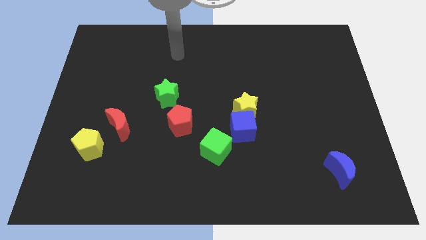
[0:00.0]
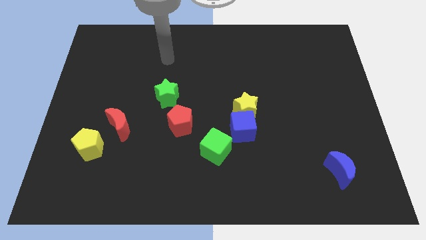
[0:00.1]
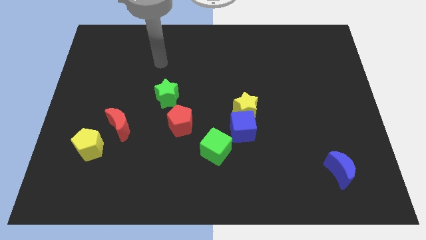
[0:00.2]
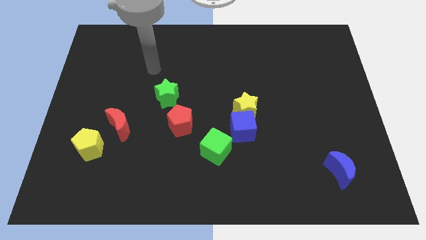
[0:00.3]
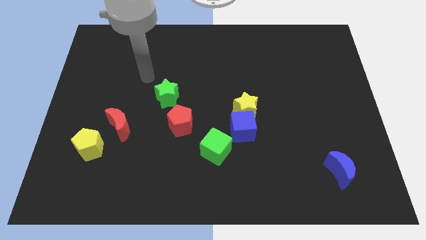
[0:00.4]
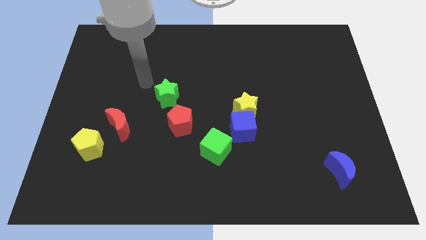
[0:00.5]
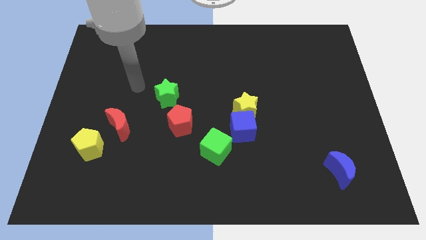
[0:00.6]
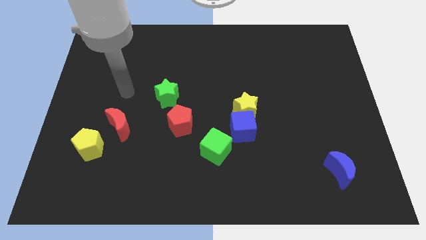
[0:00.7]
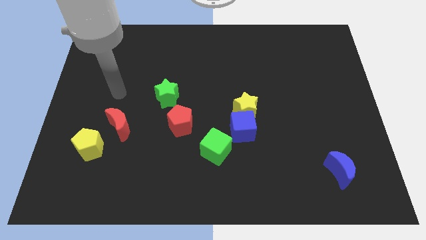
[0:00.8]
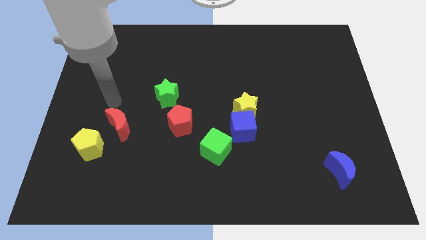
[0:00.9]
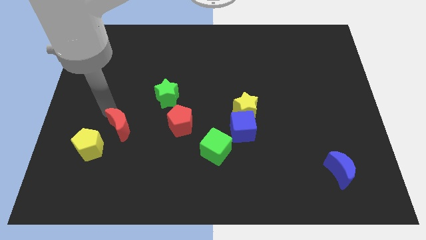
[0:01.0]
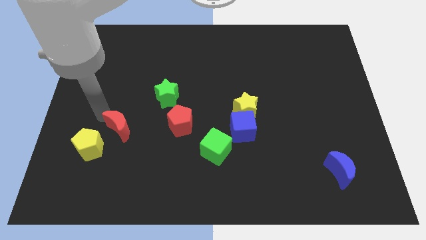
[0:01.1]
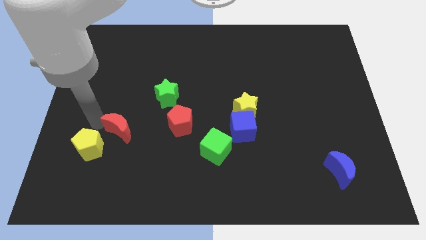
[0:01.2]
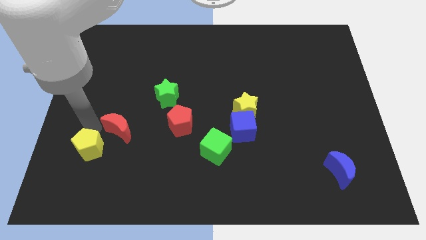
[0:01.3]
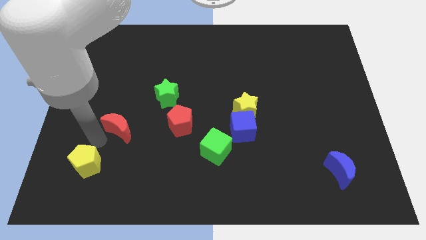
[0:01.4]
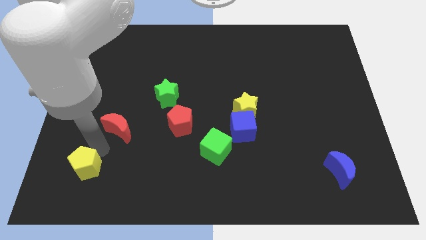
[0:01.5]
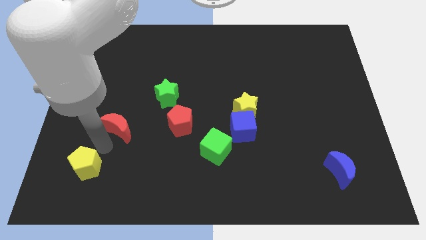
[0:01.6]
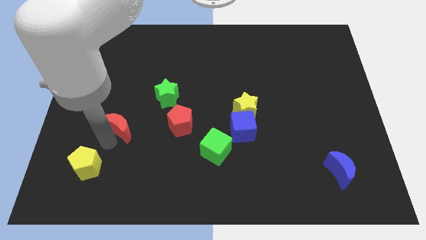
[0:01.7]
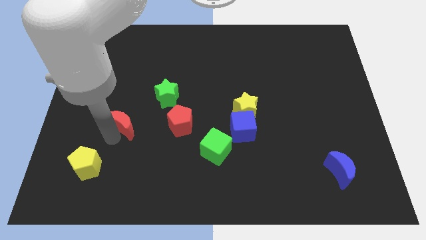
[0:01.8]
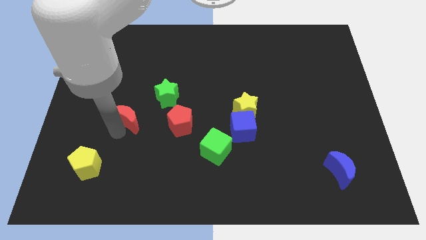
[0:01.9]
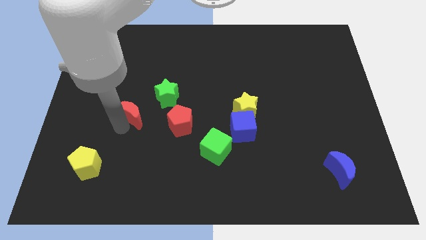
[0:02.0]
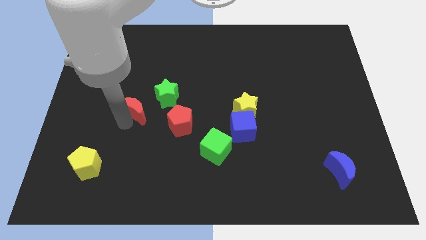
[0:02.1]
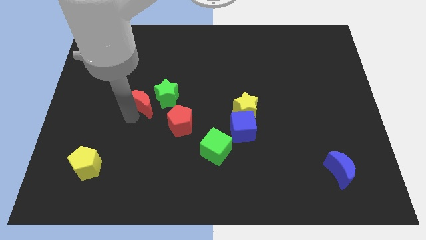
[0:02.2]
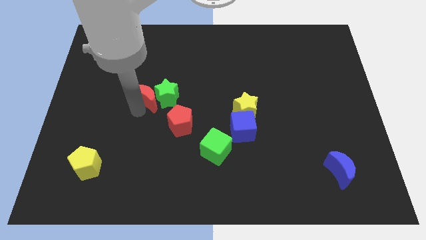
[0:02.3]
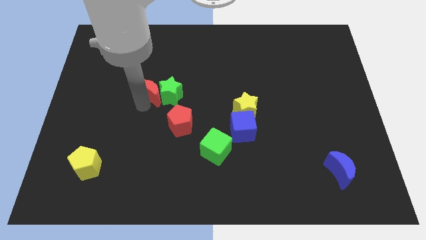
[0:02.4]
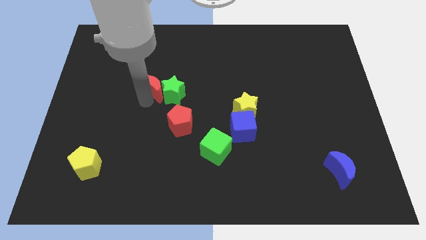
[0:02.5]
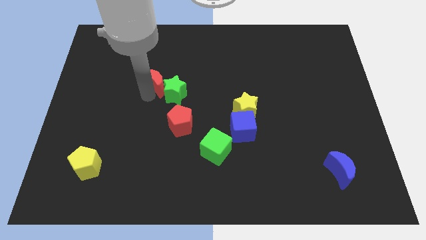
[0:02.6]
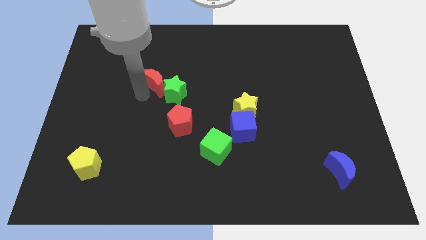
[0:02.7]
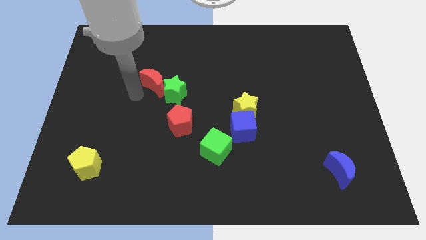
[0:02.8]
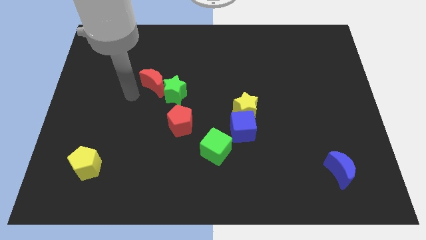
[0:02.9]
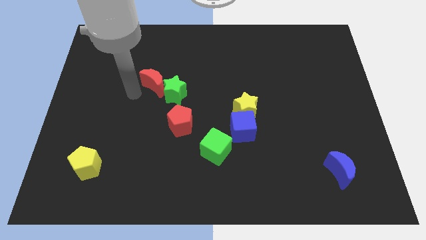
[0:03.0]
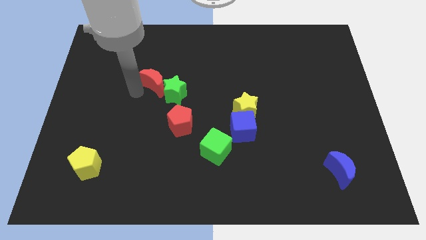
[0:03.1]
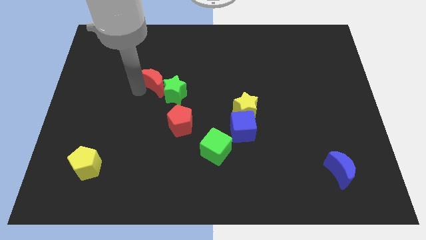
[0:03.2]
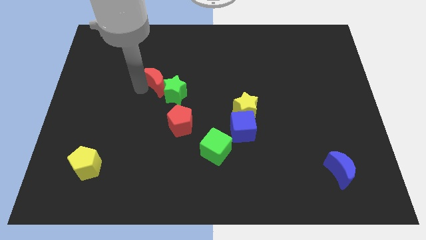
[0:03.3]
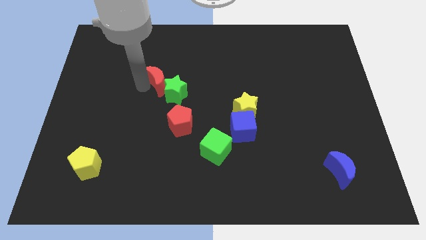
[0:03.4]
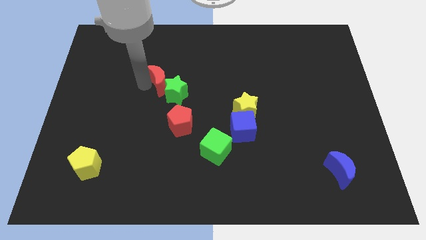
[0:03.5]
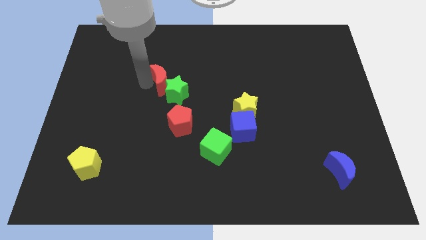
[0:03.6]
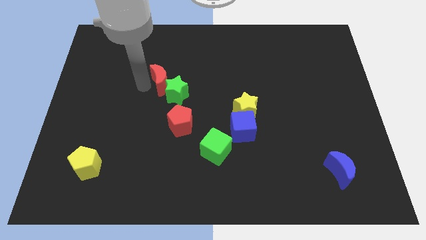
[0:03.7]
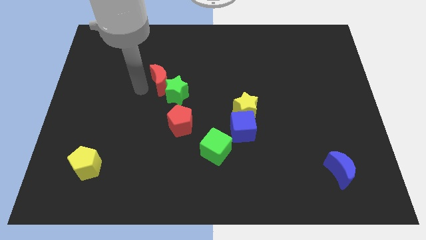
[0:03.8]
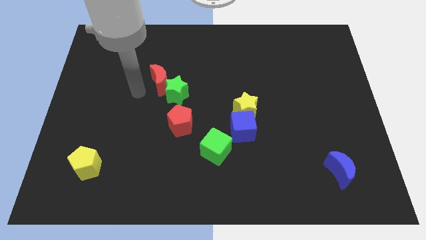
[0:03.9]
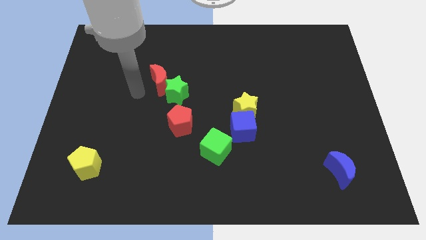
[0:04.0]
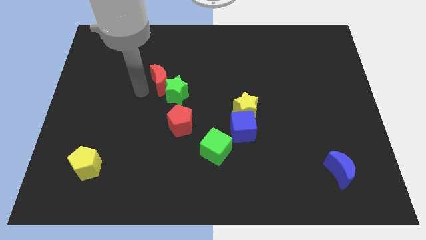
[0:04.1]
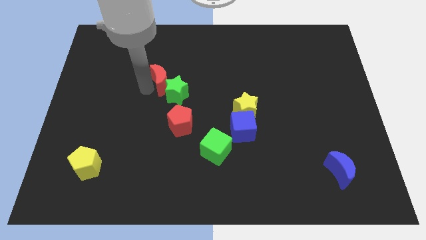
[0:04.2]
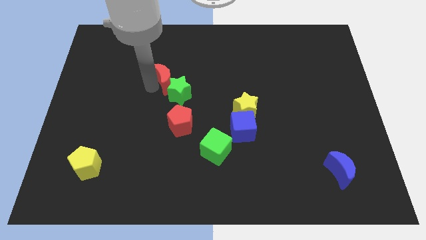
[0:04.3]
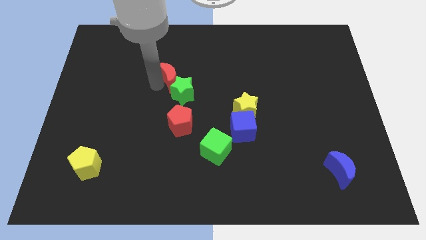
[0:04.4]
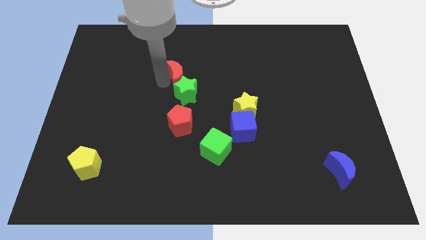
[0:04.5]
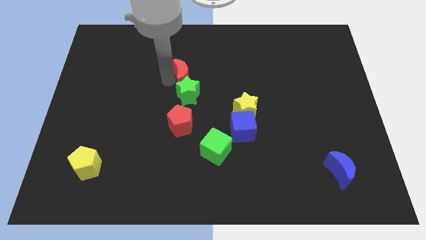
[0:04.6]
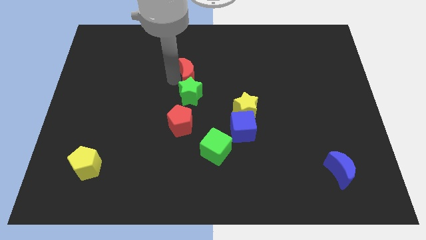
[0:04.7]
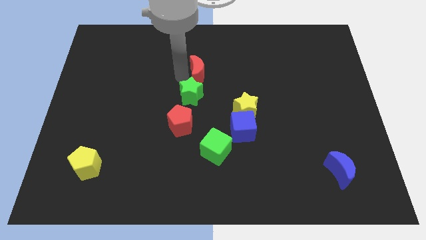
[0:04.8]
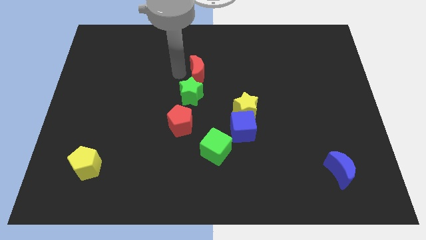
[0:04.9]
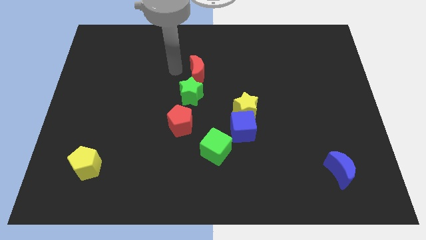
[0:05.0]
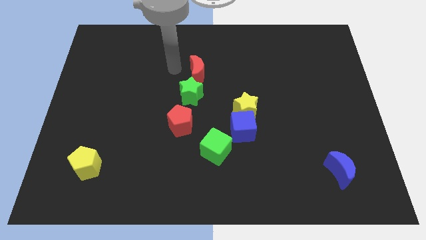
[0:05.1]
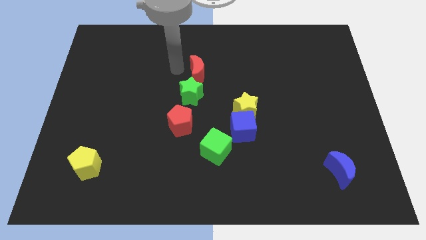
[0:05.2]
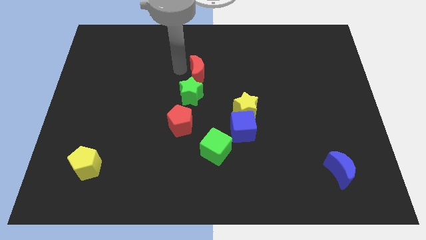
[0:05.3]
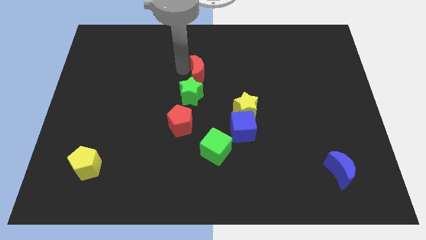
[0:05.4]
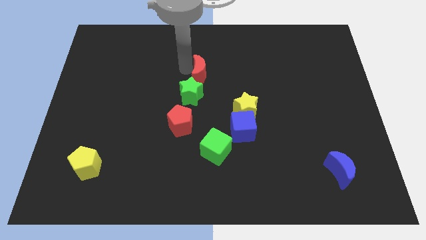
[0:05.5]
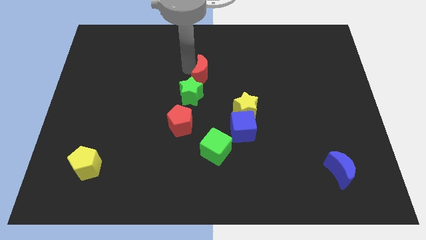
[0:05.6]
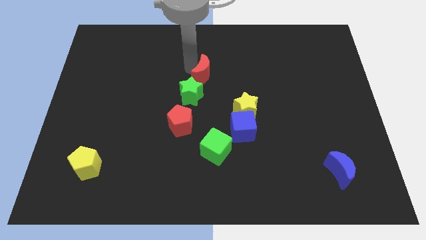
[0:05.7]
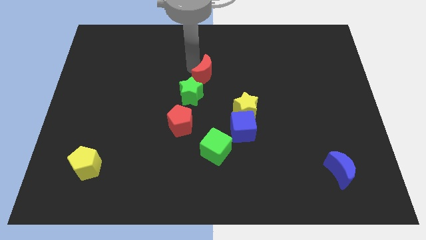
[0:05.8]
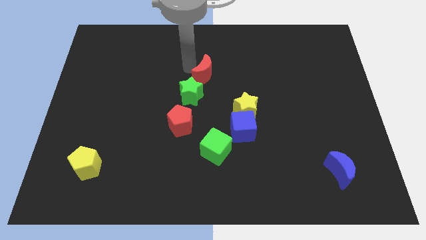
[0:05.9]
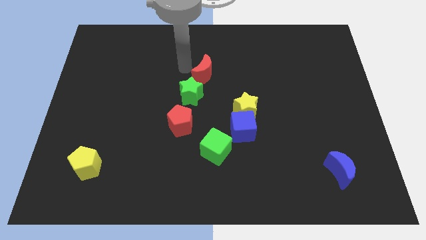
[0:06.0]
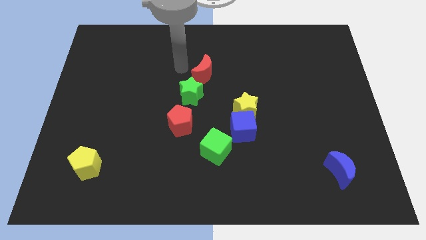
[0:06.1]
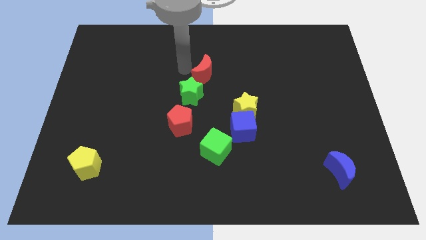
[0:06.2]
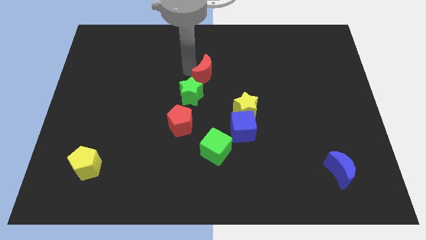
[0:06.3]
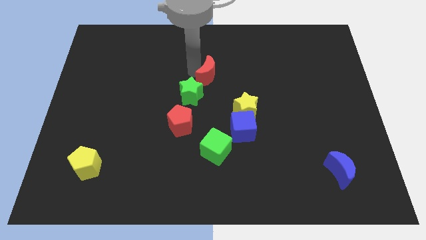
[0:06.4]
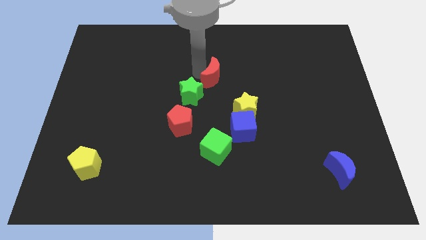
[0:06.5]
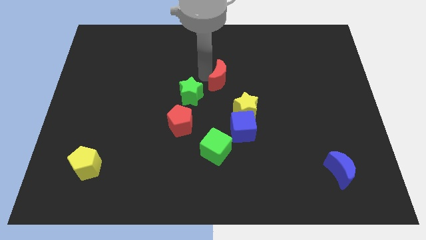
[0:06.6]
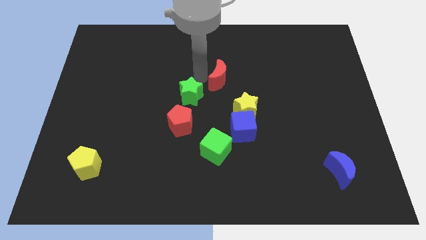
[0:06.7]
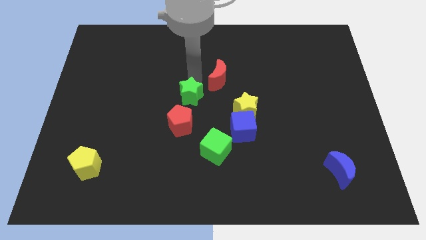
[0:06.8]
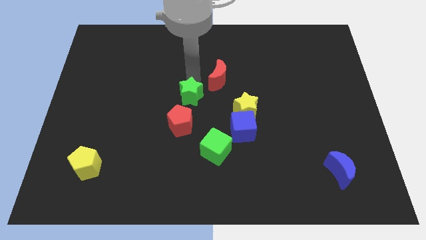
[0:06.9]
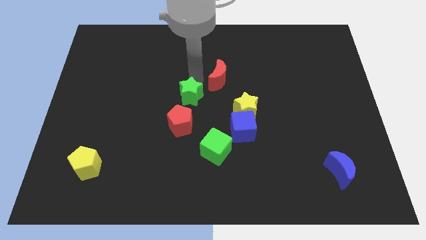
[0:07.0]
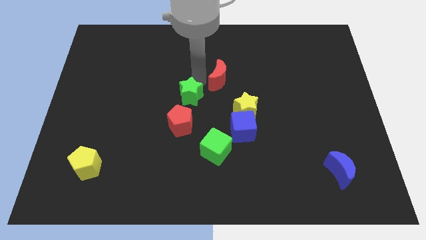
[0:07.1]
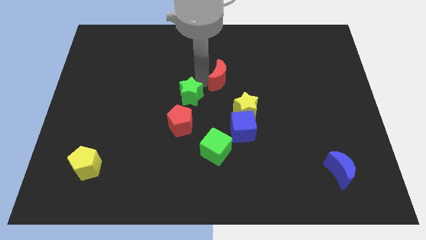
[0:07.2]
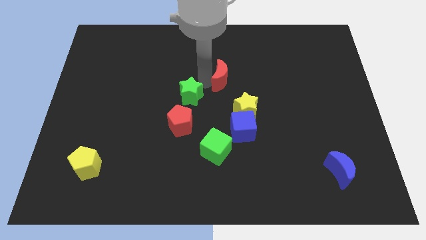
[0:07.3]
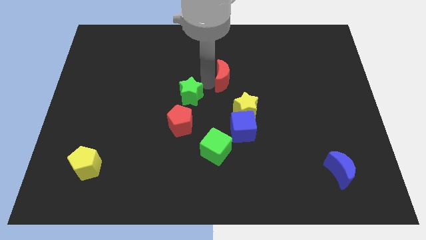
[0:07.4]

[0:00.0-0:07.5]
put the red moon to the top side of the yellow star
